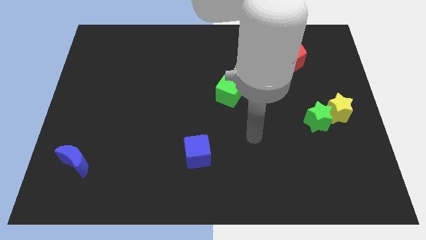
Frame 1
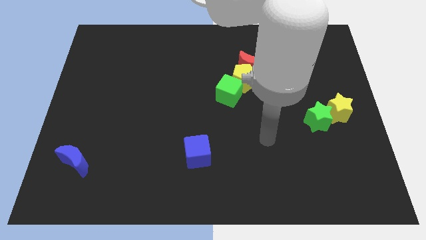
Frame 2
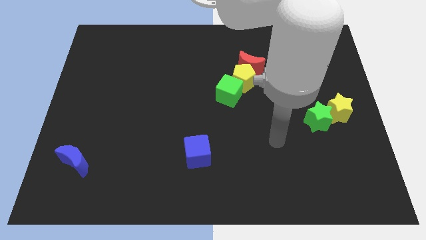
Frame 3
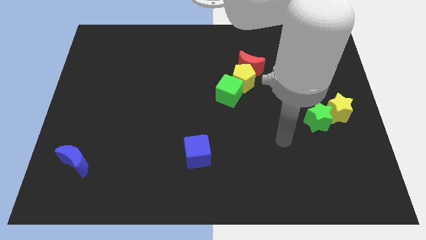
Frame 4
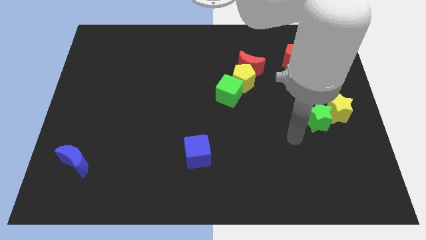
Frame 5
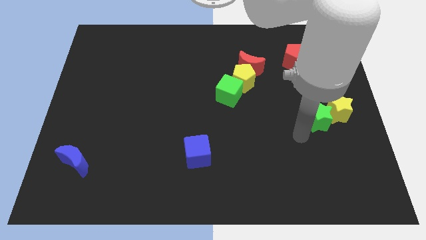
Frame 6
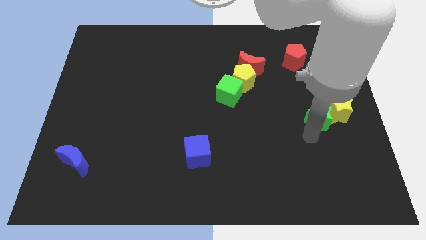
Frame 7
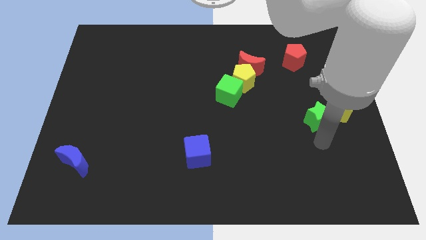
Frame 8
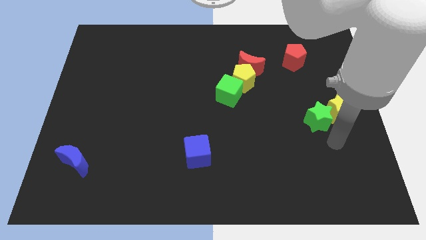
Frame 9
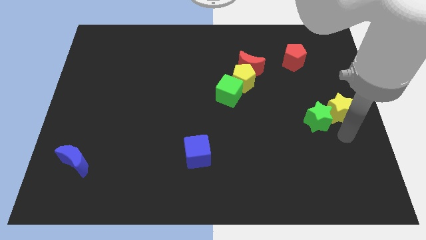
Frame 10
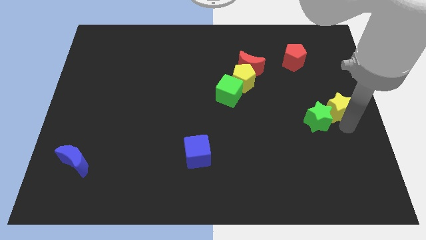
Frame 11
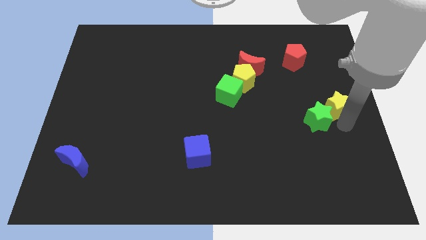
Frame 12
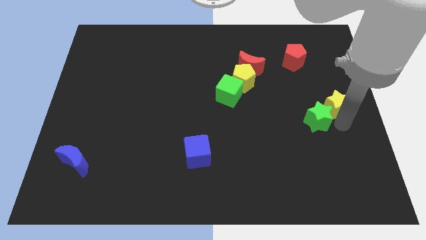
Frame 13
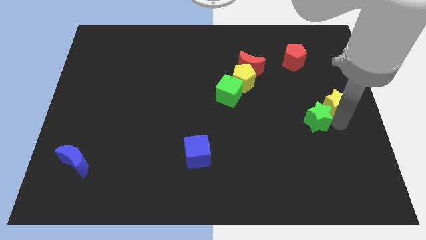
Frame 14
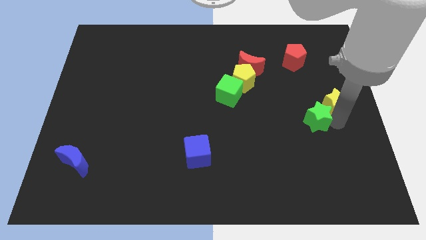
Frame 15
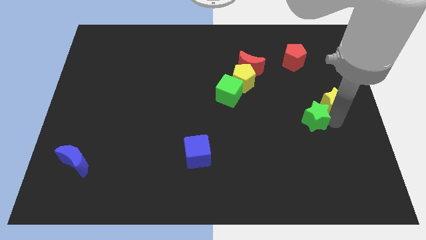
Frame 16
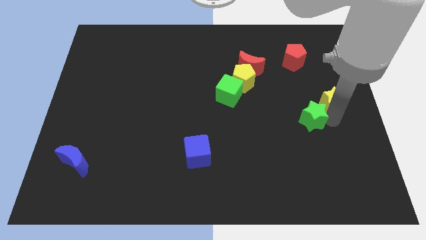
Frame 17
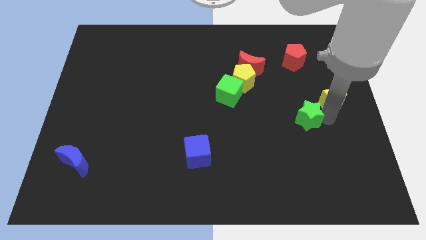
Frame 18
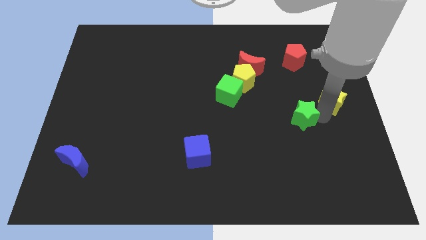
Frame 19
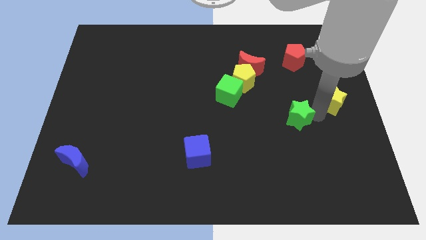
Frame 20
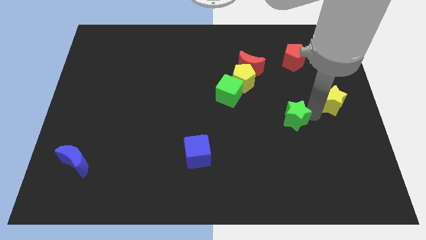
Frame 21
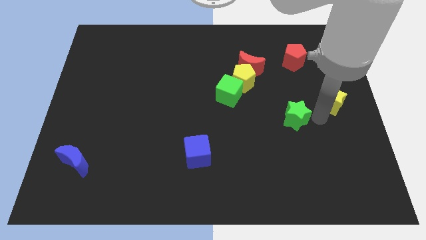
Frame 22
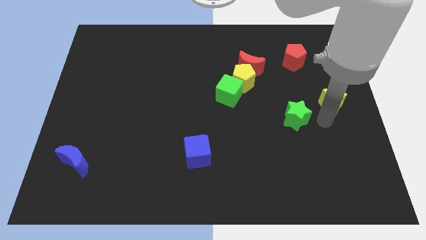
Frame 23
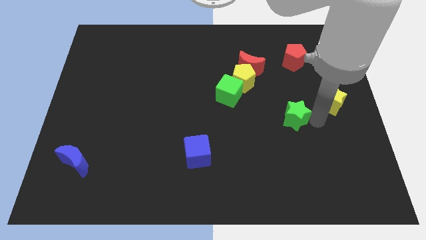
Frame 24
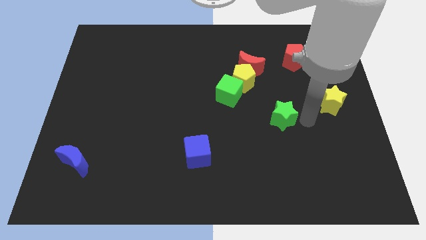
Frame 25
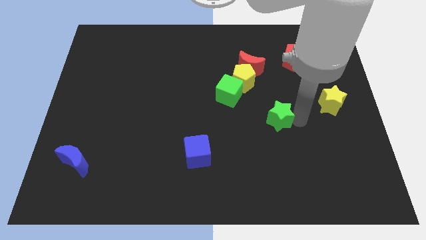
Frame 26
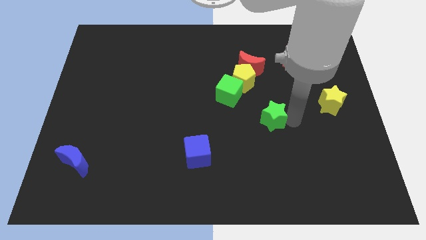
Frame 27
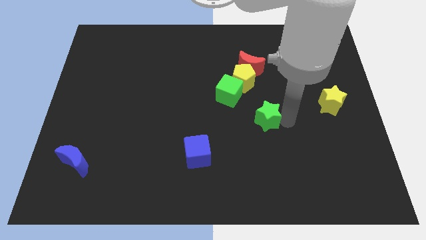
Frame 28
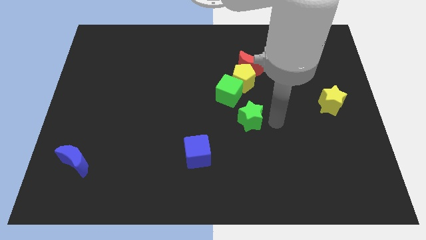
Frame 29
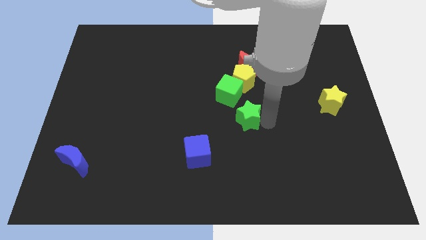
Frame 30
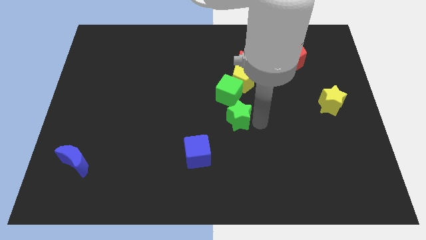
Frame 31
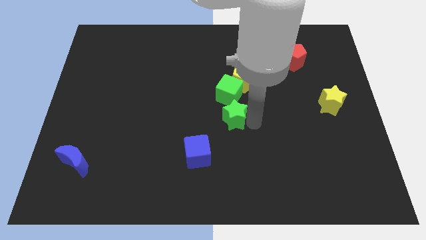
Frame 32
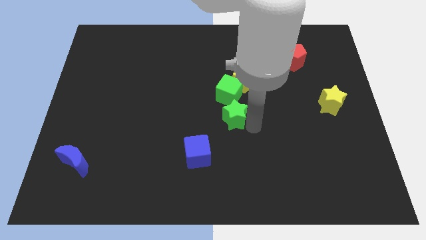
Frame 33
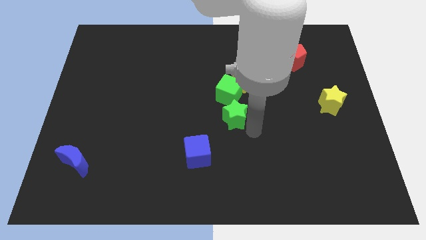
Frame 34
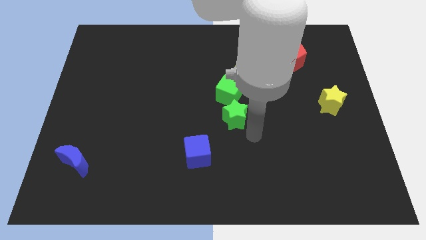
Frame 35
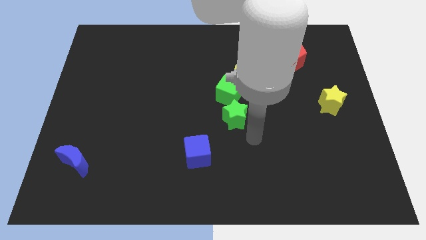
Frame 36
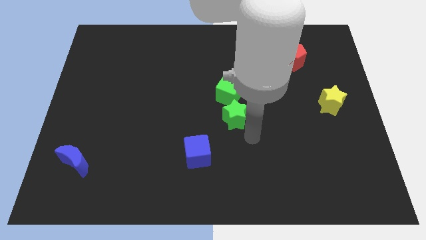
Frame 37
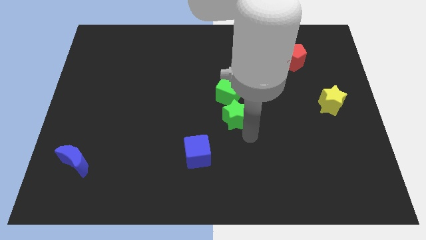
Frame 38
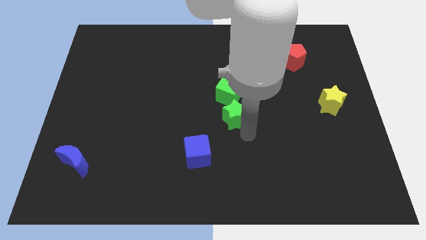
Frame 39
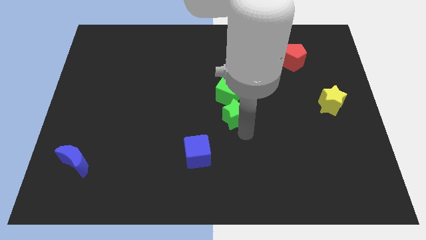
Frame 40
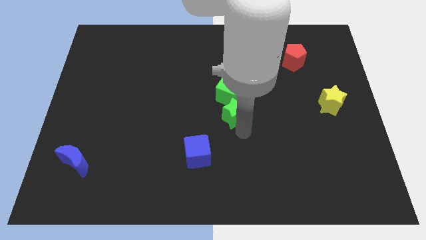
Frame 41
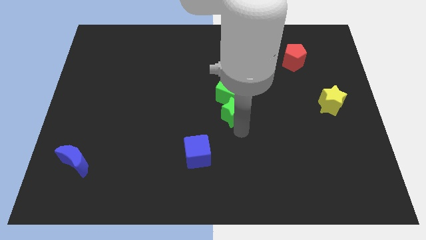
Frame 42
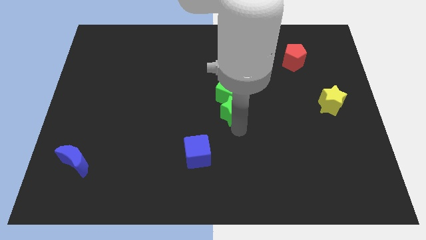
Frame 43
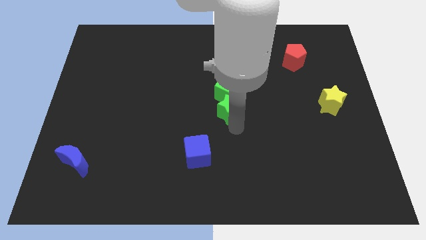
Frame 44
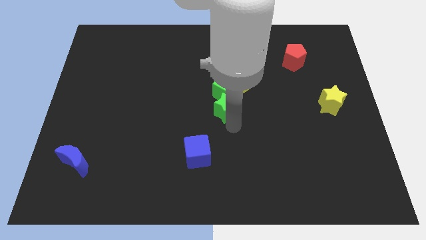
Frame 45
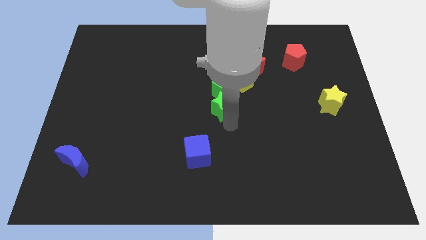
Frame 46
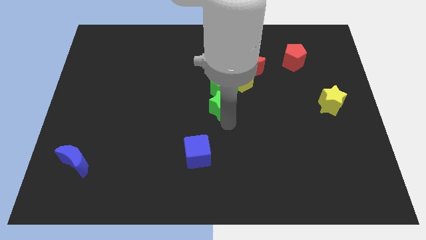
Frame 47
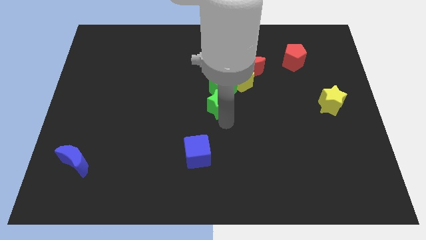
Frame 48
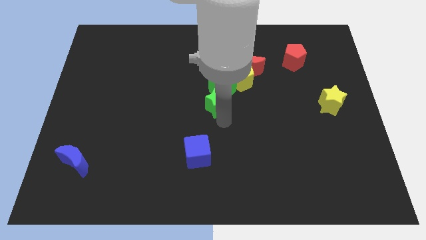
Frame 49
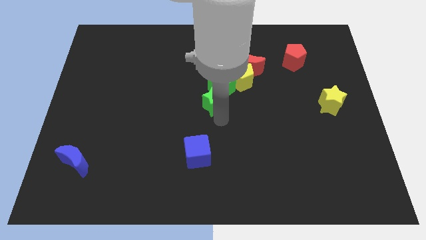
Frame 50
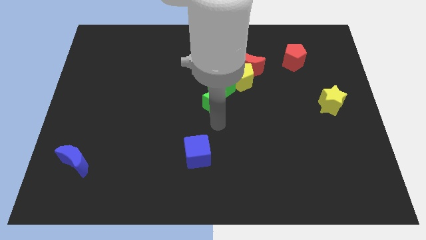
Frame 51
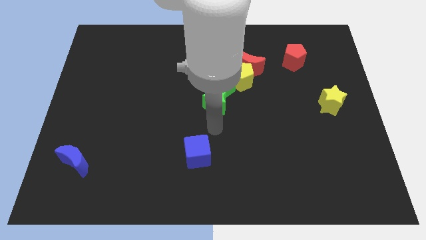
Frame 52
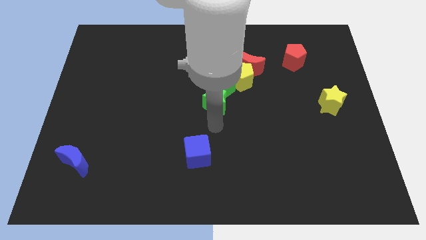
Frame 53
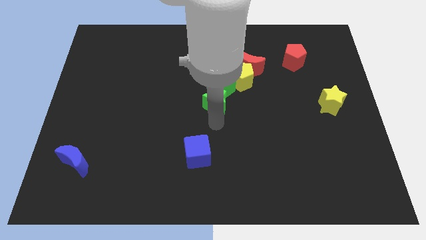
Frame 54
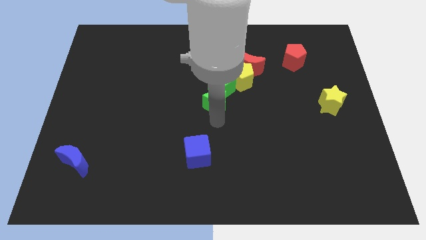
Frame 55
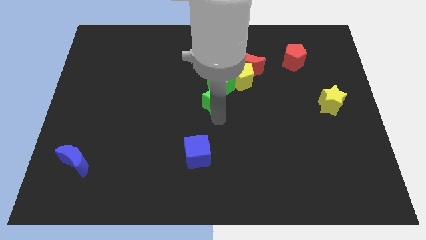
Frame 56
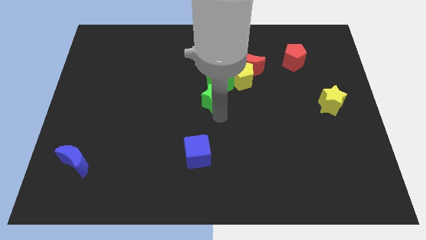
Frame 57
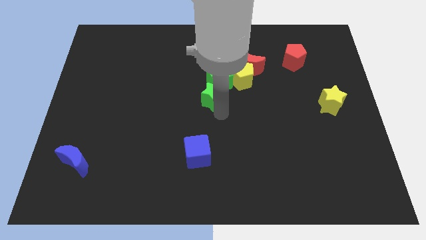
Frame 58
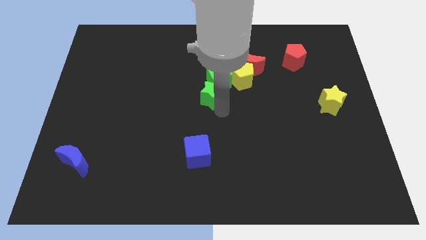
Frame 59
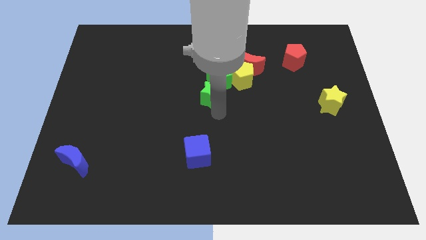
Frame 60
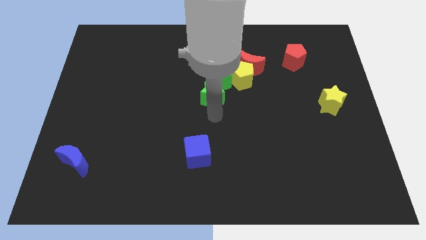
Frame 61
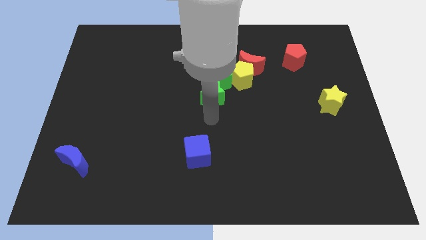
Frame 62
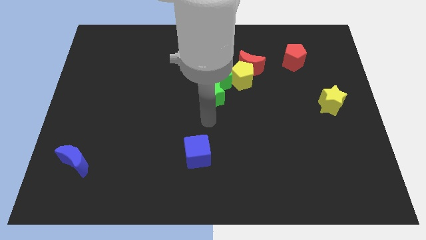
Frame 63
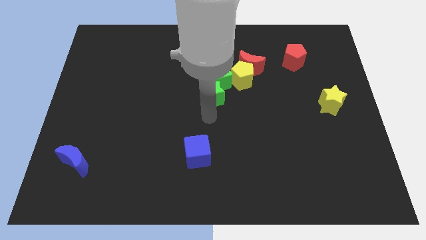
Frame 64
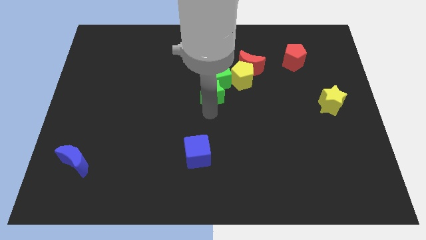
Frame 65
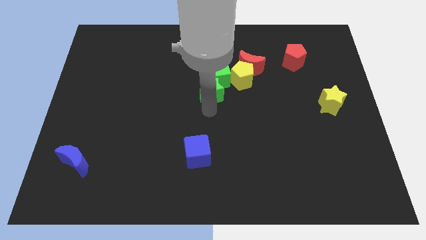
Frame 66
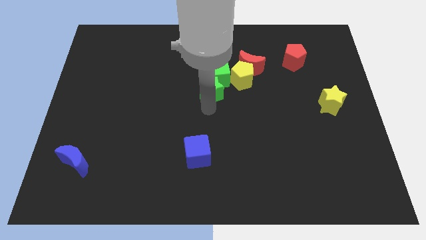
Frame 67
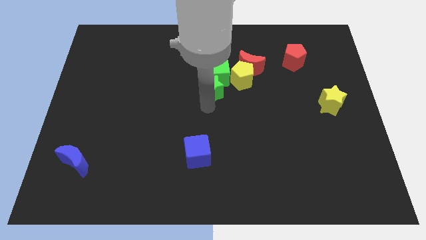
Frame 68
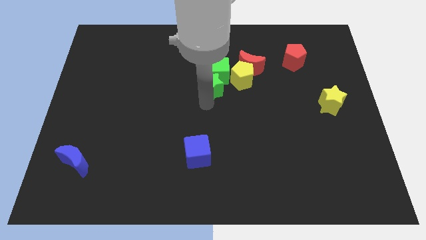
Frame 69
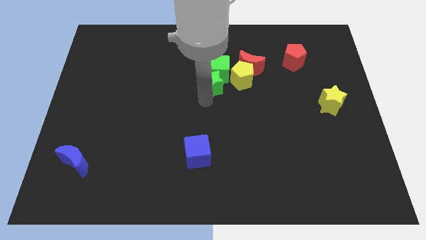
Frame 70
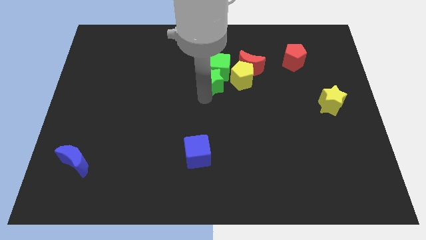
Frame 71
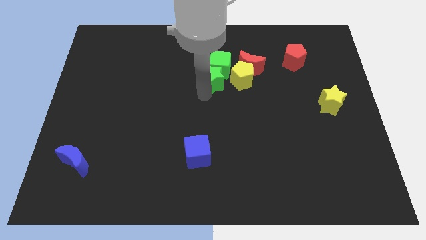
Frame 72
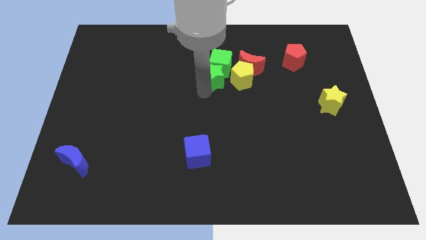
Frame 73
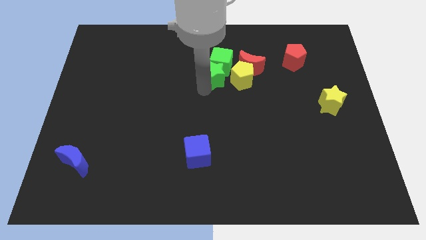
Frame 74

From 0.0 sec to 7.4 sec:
push the green star to the top left side of the yellow pentagon
